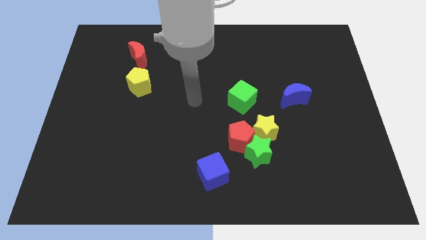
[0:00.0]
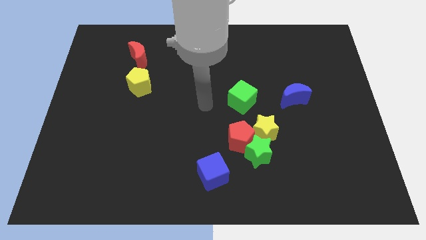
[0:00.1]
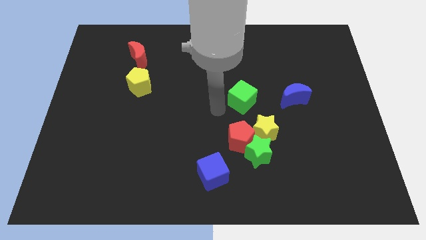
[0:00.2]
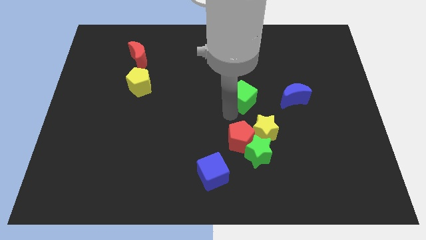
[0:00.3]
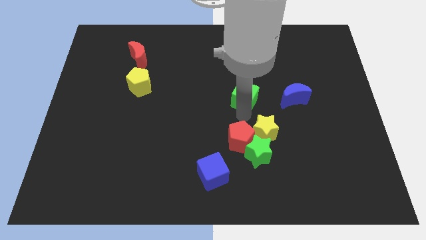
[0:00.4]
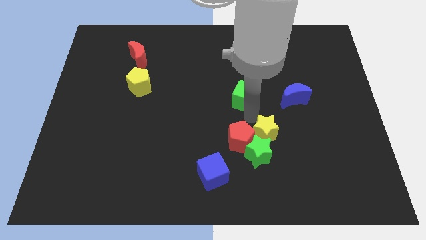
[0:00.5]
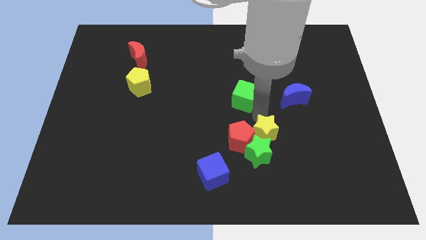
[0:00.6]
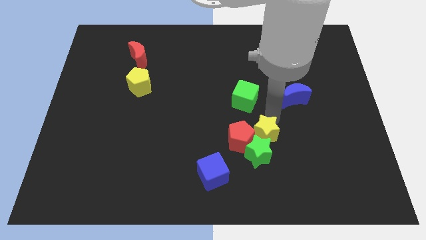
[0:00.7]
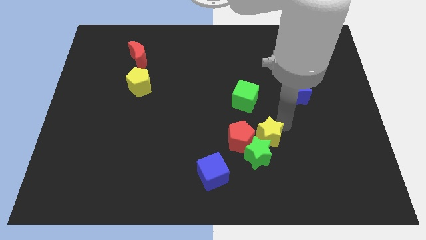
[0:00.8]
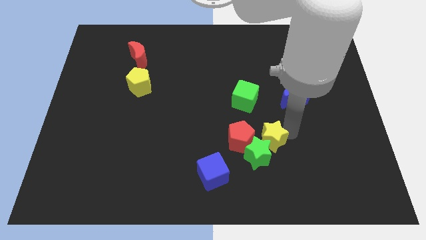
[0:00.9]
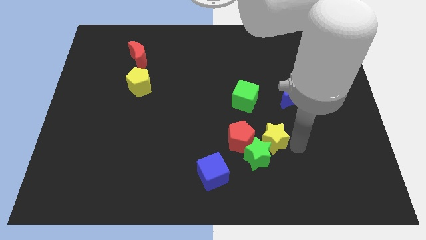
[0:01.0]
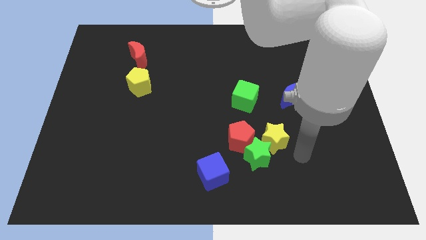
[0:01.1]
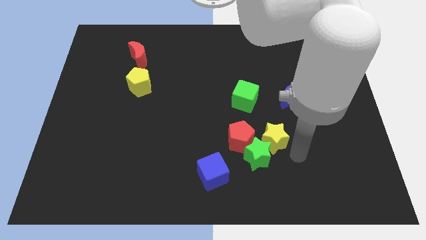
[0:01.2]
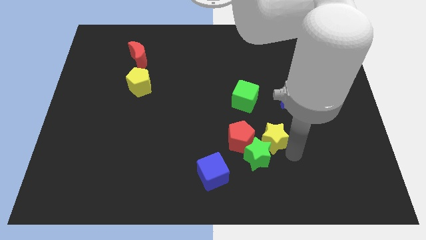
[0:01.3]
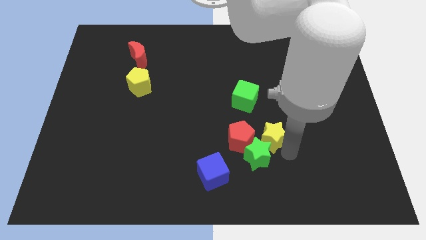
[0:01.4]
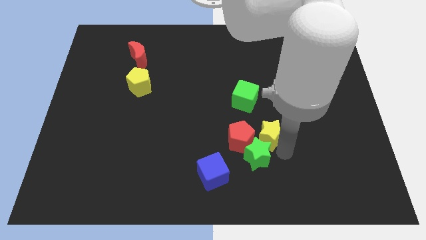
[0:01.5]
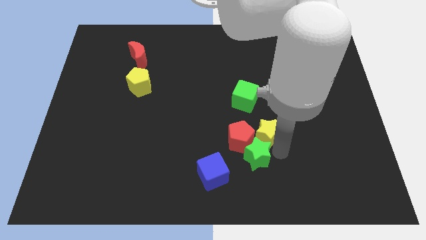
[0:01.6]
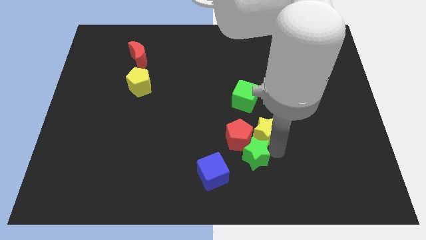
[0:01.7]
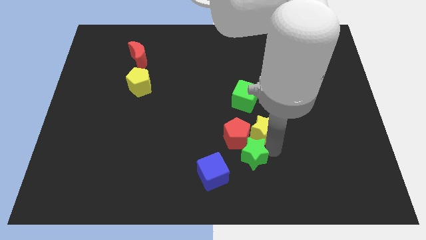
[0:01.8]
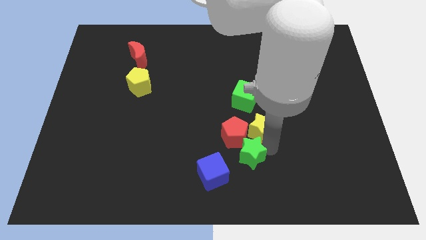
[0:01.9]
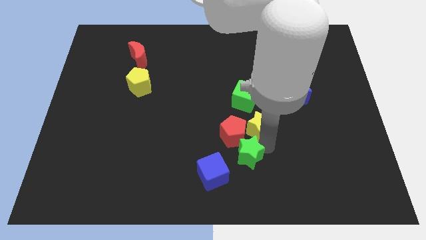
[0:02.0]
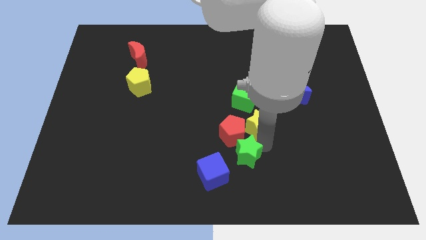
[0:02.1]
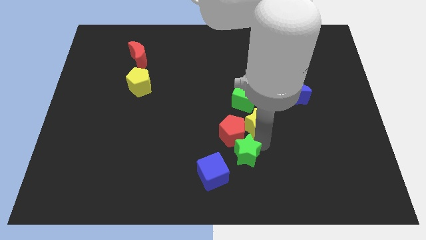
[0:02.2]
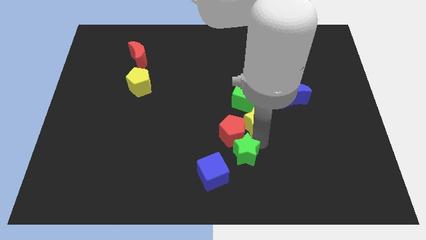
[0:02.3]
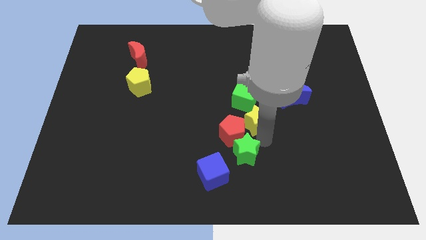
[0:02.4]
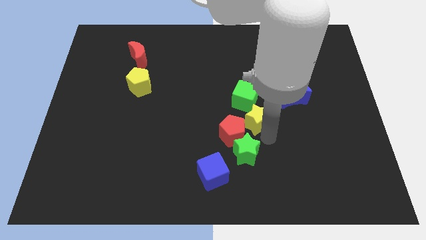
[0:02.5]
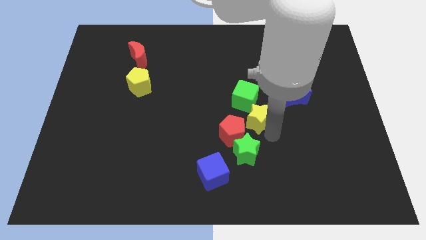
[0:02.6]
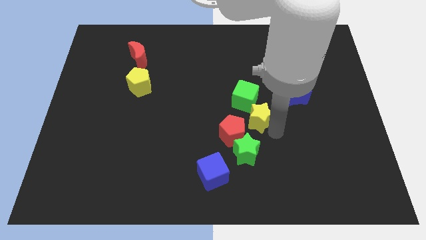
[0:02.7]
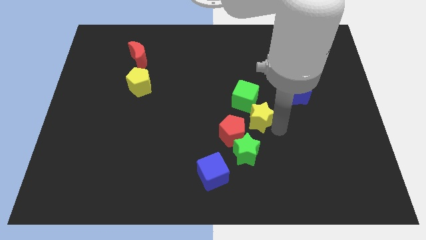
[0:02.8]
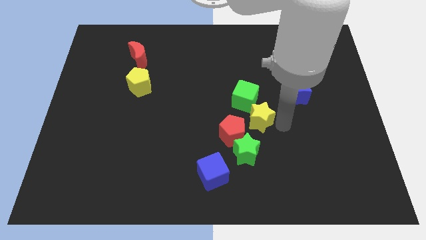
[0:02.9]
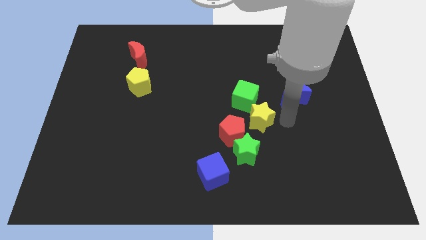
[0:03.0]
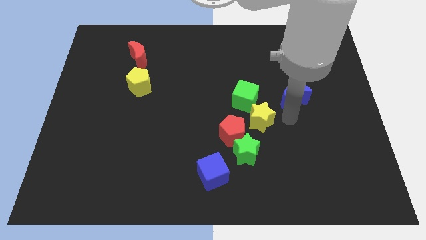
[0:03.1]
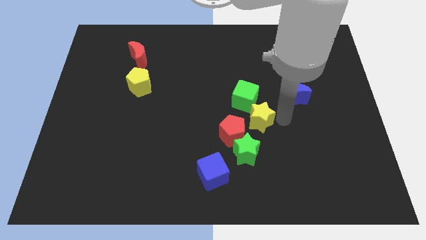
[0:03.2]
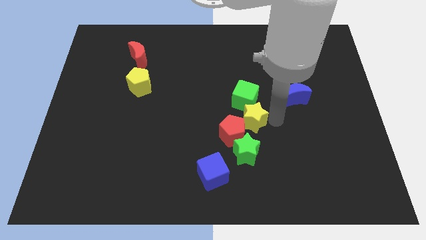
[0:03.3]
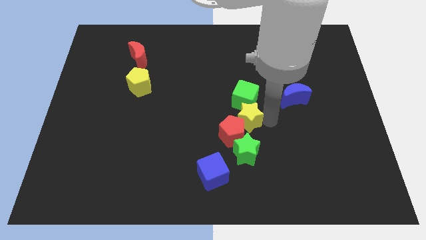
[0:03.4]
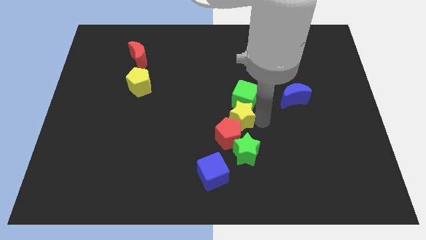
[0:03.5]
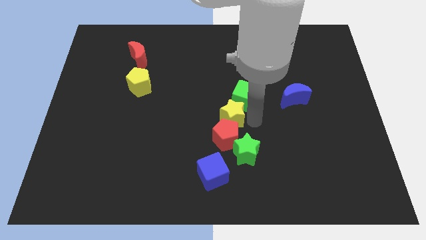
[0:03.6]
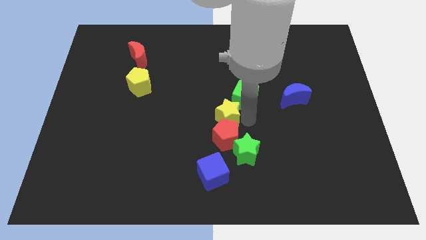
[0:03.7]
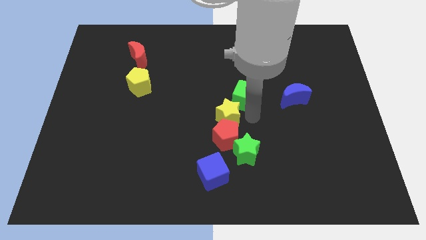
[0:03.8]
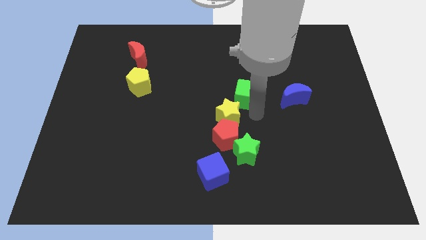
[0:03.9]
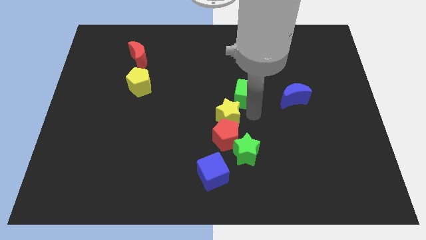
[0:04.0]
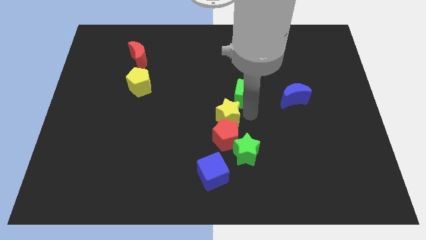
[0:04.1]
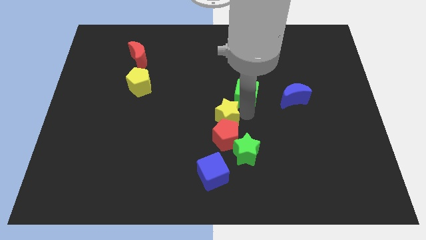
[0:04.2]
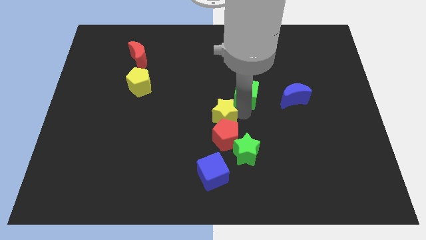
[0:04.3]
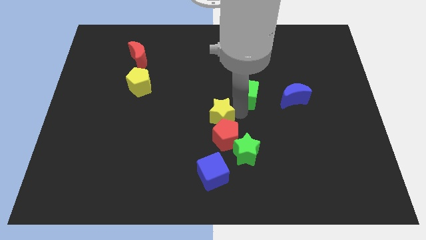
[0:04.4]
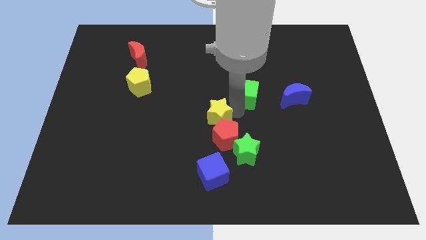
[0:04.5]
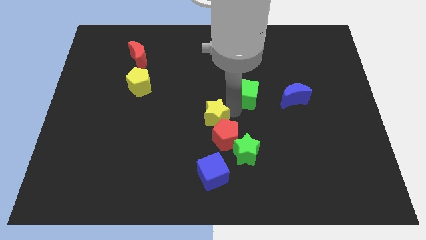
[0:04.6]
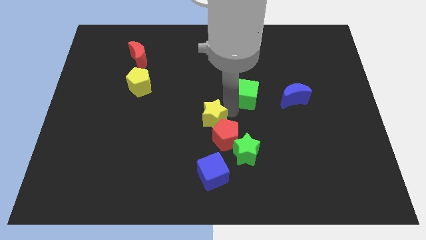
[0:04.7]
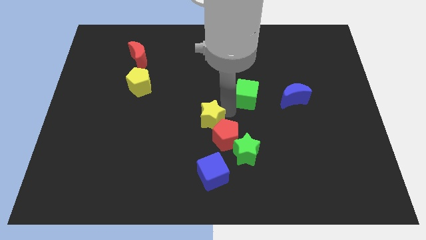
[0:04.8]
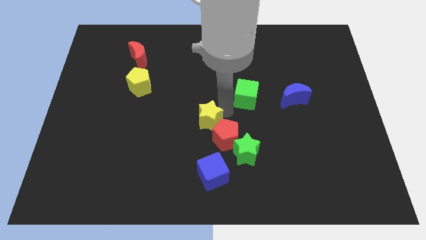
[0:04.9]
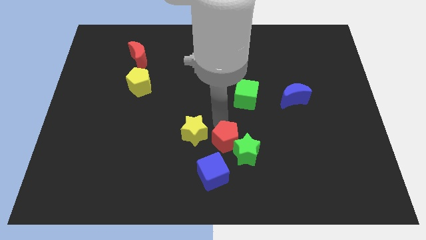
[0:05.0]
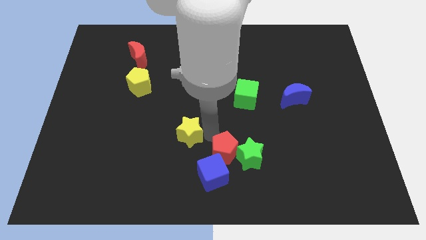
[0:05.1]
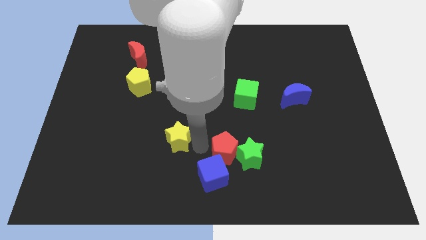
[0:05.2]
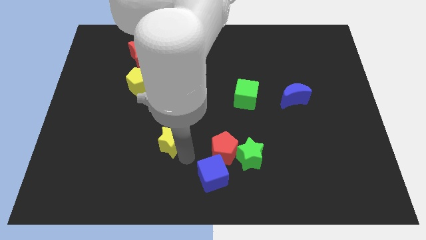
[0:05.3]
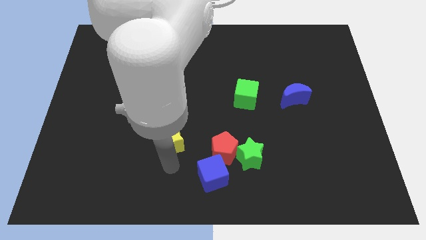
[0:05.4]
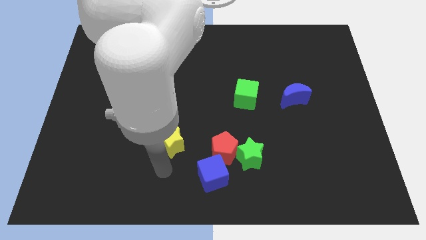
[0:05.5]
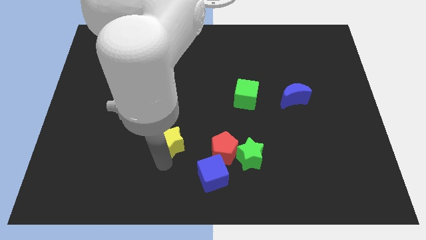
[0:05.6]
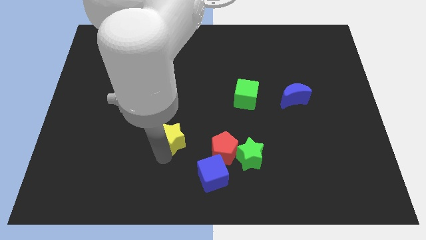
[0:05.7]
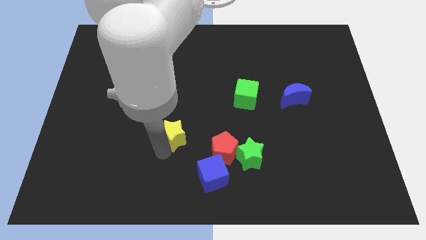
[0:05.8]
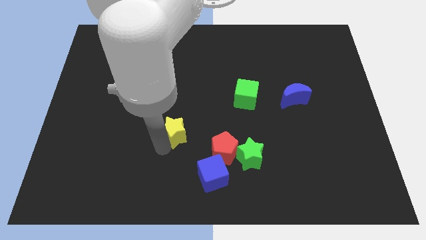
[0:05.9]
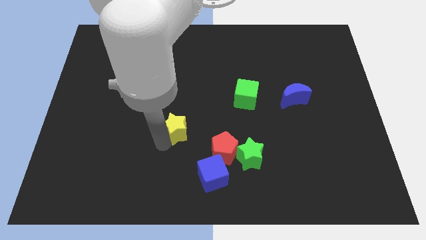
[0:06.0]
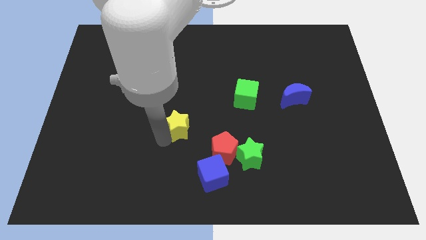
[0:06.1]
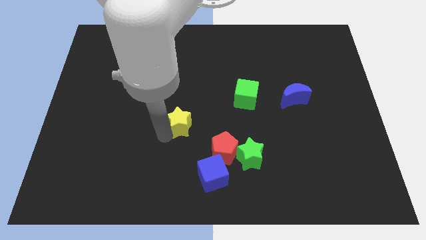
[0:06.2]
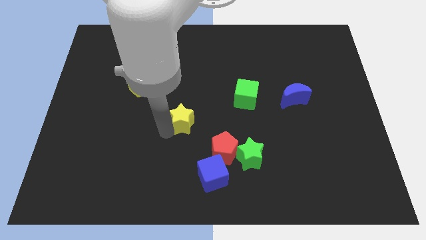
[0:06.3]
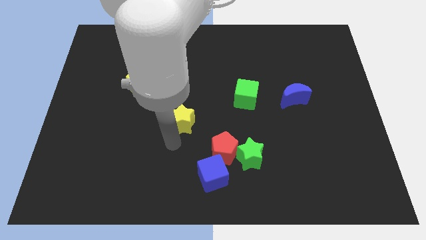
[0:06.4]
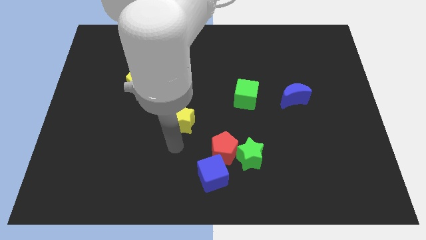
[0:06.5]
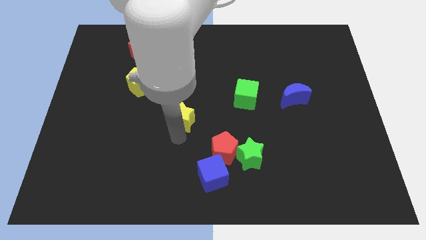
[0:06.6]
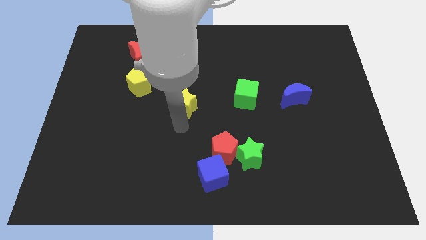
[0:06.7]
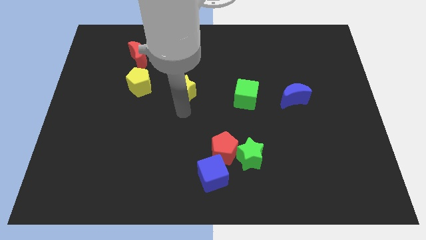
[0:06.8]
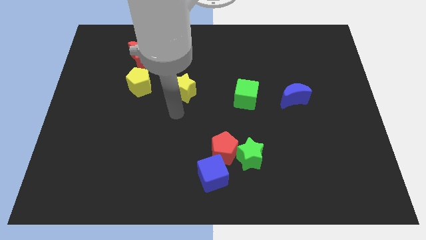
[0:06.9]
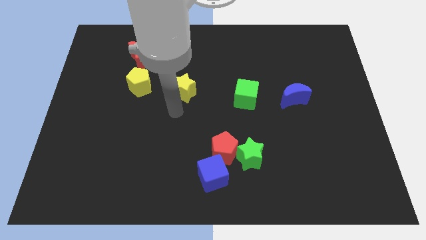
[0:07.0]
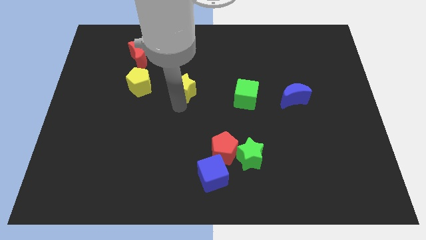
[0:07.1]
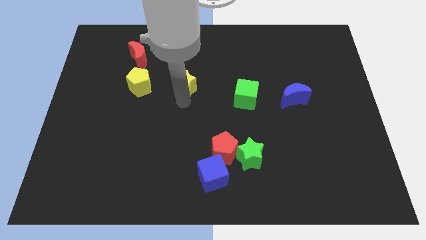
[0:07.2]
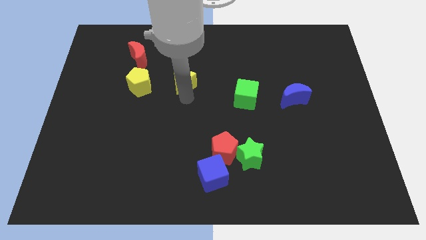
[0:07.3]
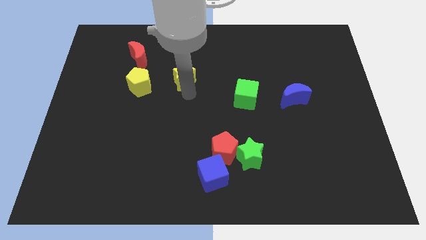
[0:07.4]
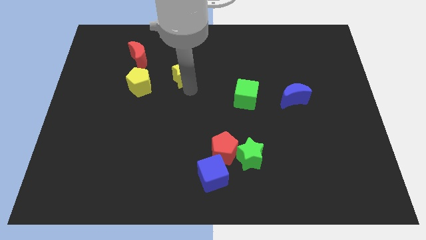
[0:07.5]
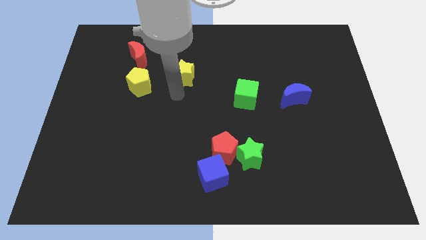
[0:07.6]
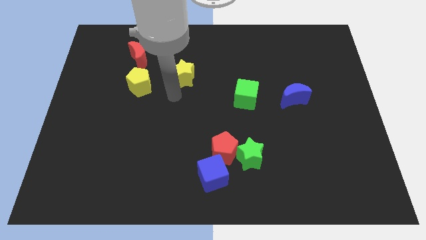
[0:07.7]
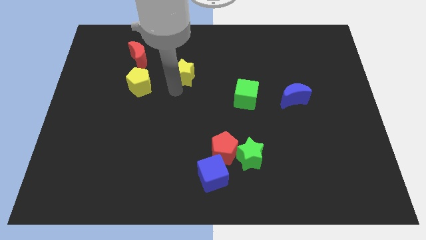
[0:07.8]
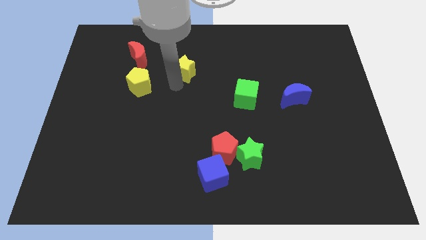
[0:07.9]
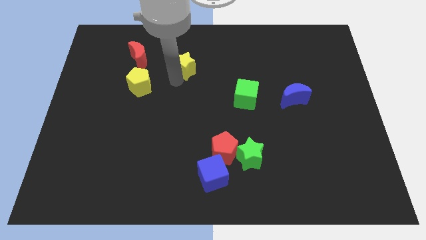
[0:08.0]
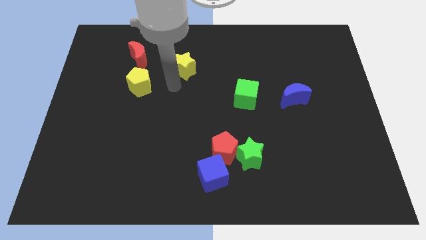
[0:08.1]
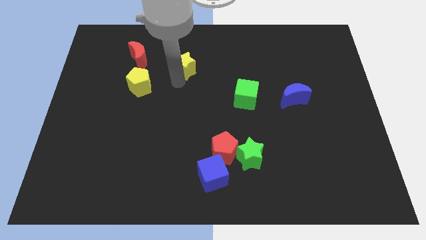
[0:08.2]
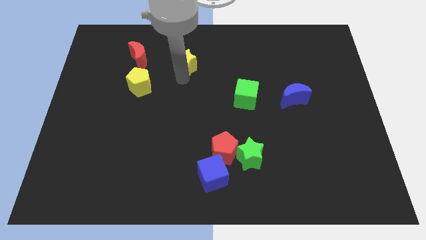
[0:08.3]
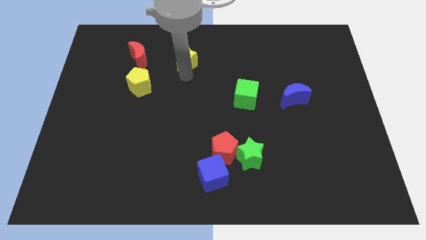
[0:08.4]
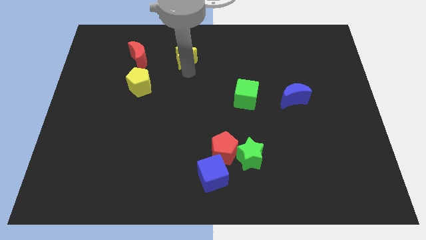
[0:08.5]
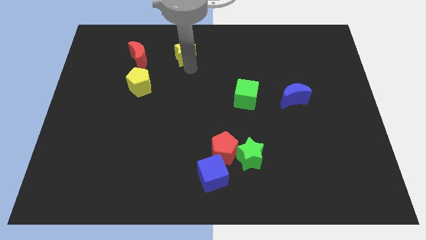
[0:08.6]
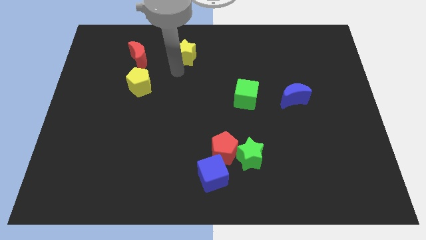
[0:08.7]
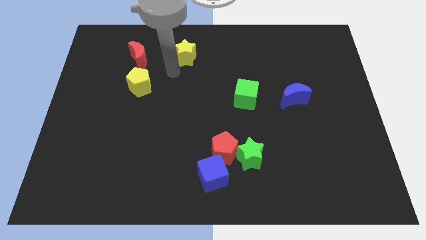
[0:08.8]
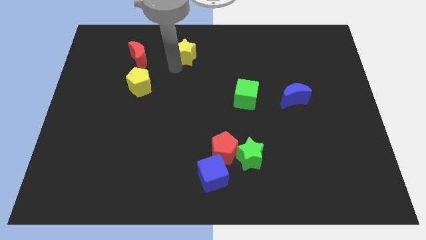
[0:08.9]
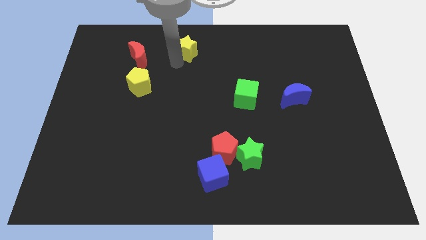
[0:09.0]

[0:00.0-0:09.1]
slide the yellow star to the top
